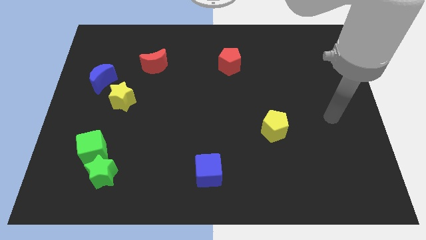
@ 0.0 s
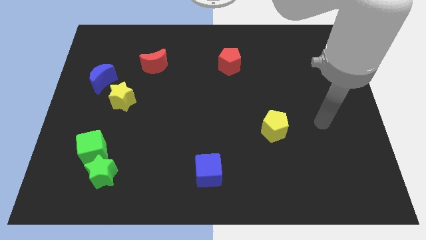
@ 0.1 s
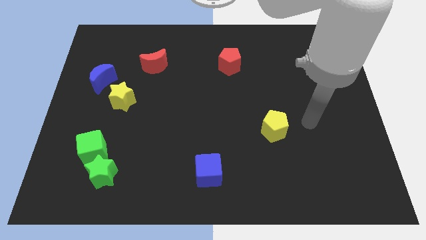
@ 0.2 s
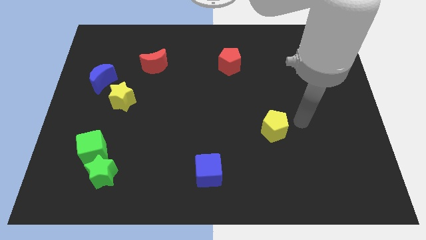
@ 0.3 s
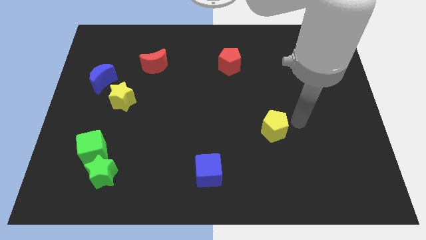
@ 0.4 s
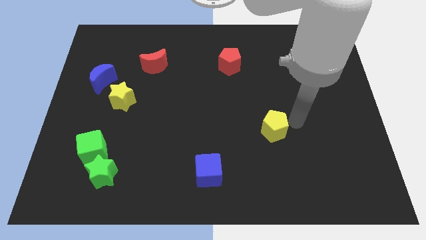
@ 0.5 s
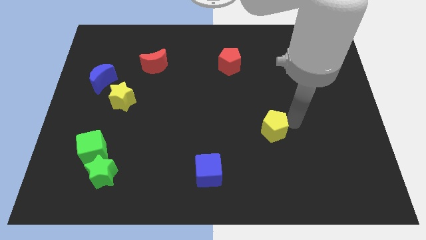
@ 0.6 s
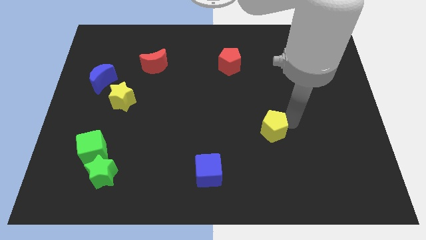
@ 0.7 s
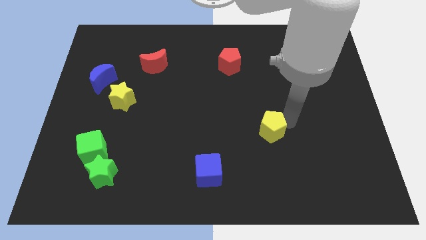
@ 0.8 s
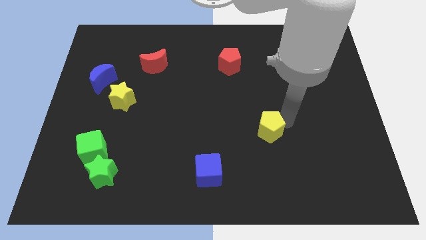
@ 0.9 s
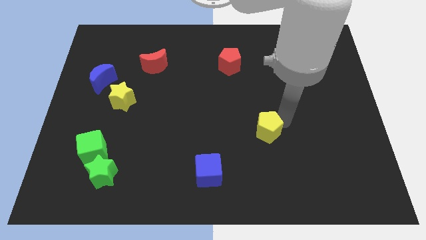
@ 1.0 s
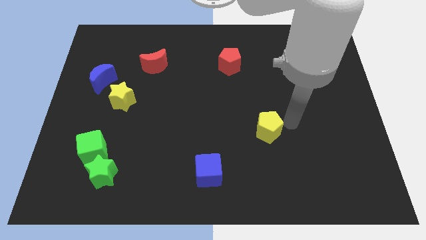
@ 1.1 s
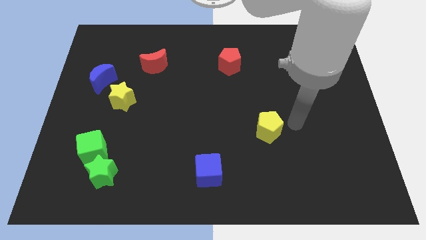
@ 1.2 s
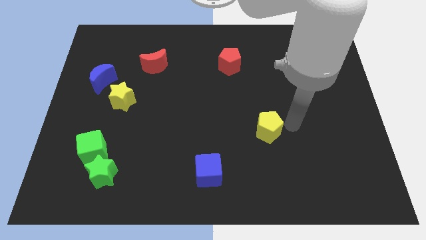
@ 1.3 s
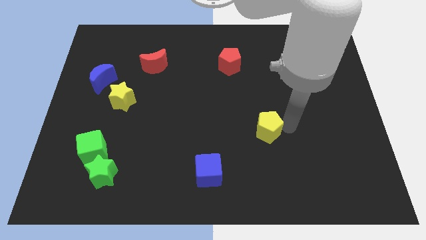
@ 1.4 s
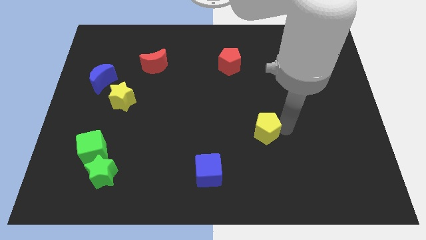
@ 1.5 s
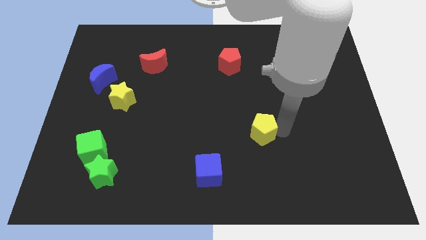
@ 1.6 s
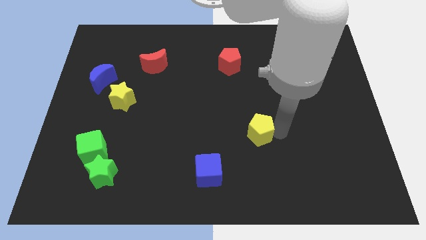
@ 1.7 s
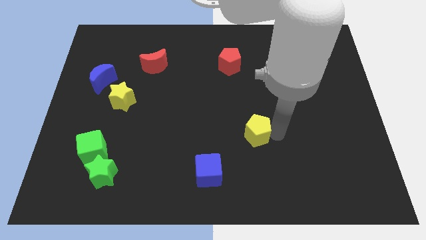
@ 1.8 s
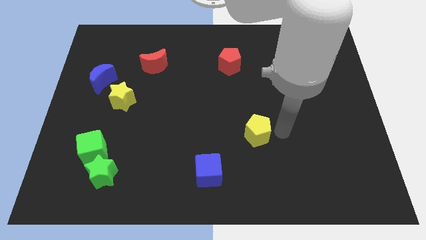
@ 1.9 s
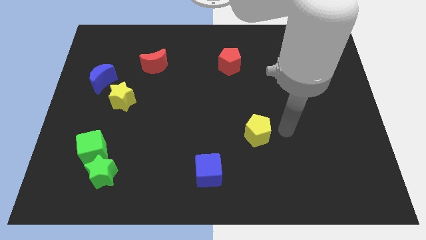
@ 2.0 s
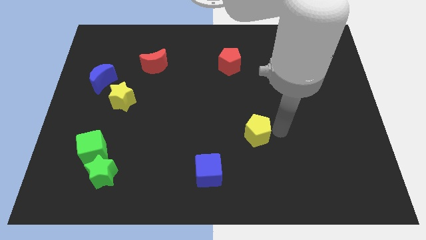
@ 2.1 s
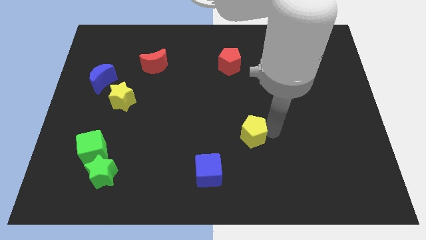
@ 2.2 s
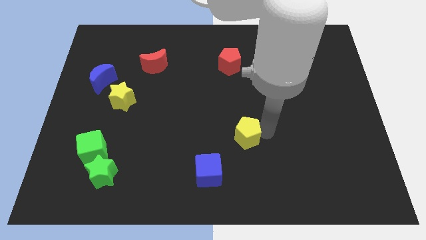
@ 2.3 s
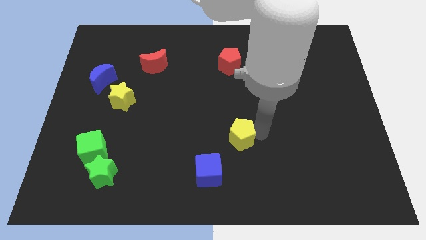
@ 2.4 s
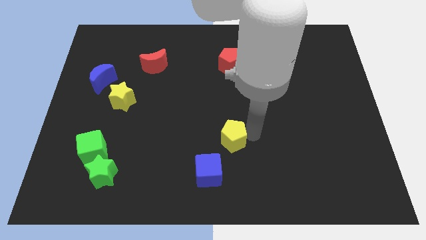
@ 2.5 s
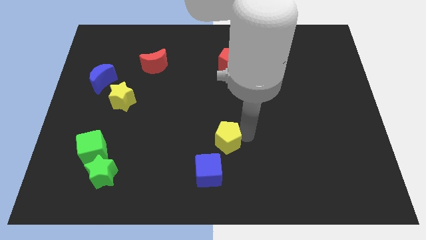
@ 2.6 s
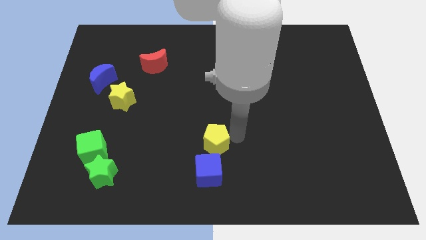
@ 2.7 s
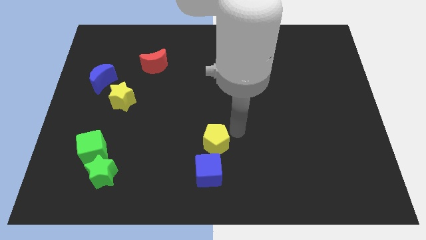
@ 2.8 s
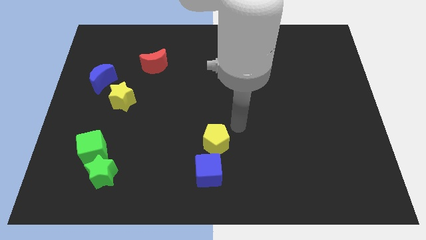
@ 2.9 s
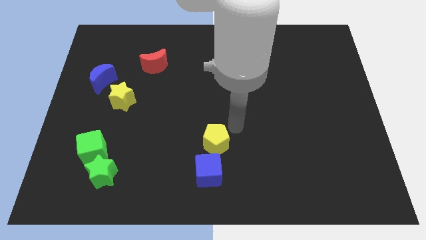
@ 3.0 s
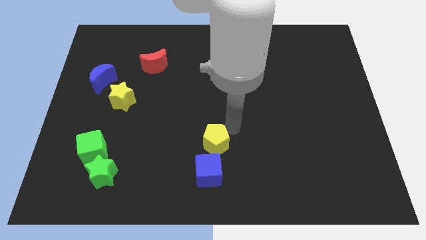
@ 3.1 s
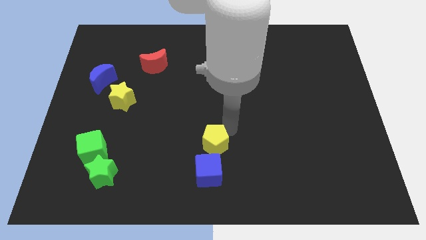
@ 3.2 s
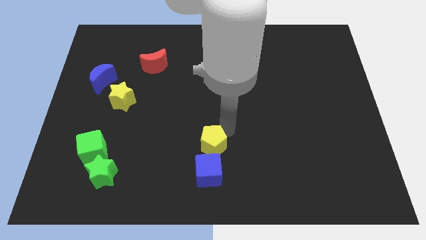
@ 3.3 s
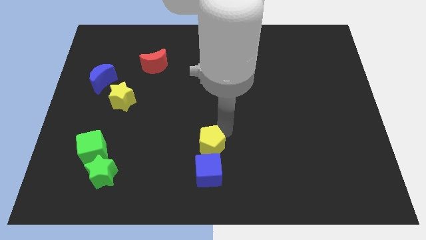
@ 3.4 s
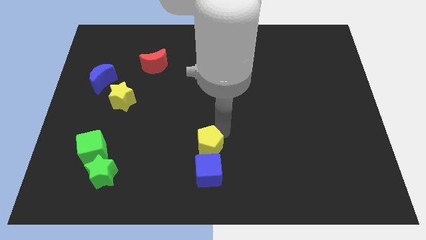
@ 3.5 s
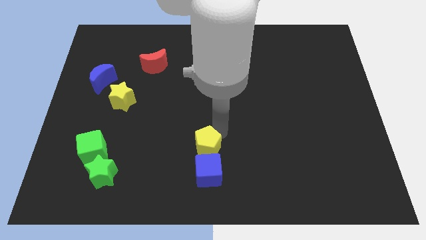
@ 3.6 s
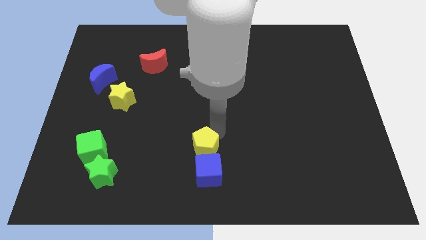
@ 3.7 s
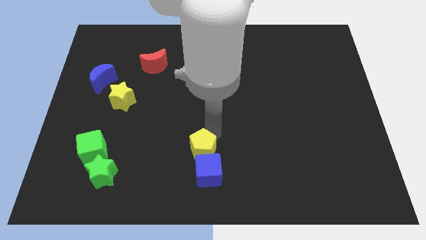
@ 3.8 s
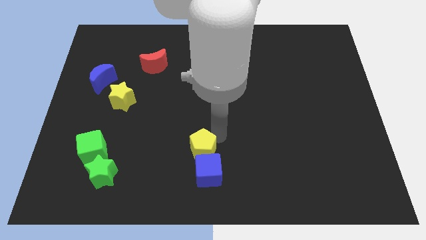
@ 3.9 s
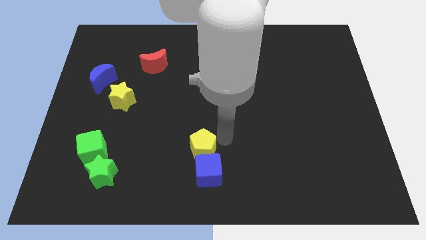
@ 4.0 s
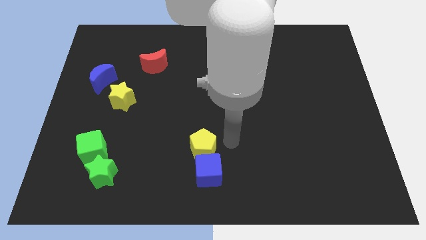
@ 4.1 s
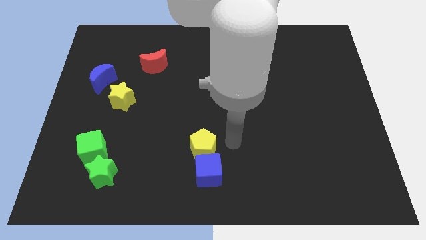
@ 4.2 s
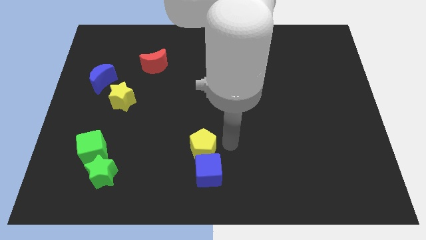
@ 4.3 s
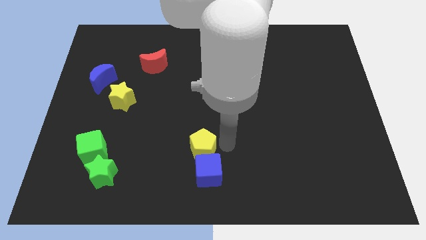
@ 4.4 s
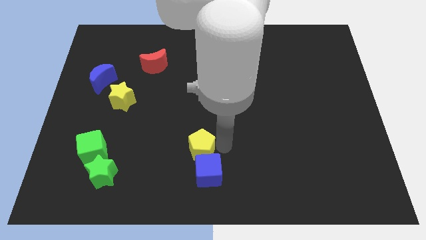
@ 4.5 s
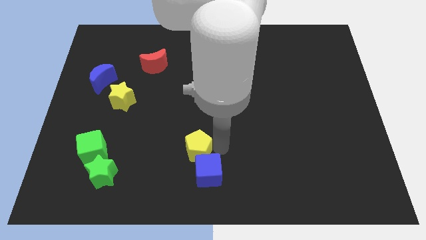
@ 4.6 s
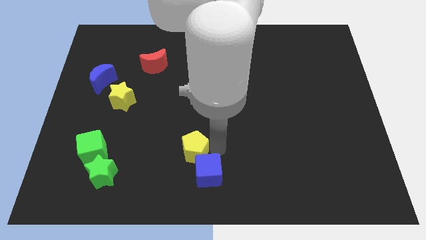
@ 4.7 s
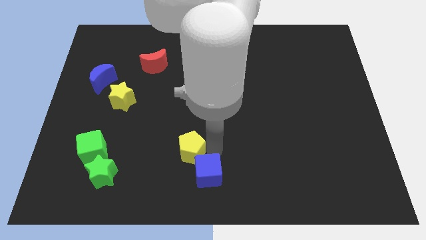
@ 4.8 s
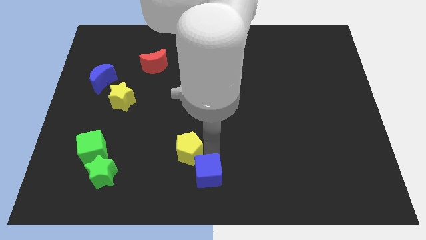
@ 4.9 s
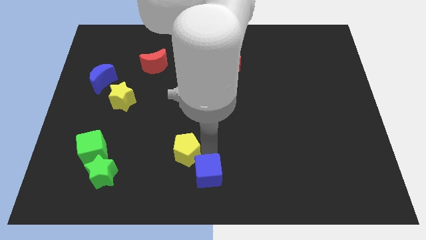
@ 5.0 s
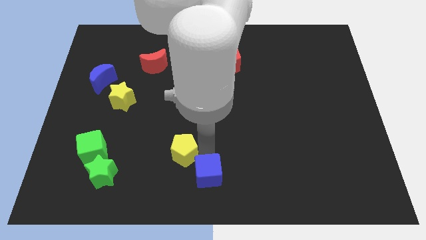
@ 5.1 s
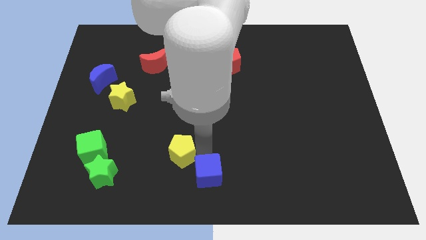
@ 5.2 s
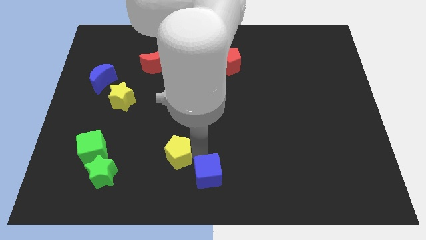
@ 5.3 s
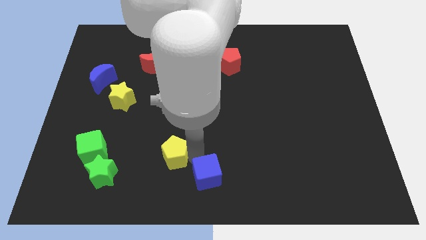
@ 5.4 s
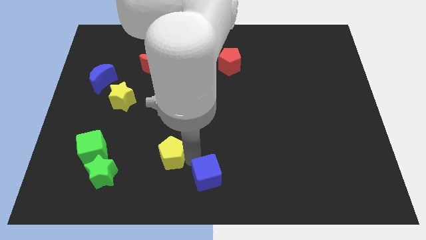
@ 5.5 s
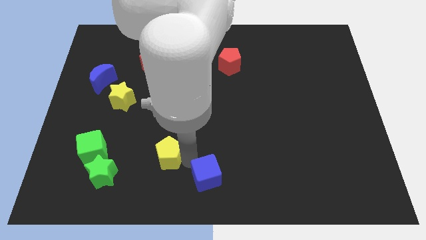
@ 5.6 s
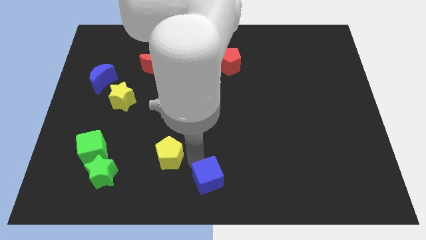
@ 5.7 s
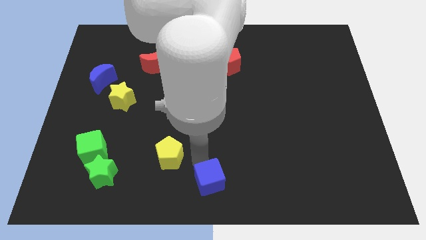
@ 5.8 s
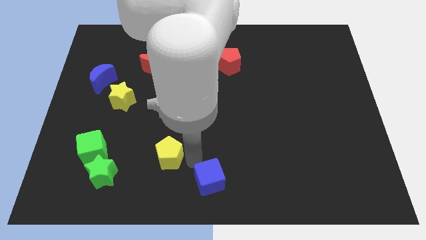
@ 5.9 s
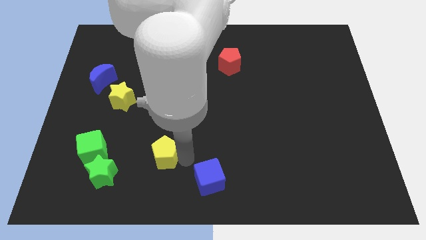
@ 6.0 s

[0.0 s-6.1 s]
push the yellow pentagon just right of the green cube
